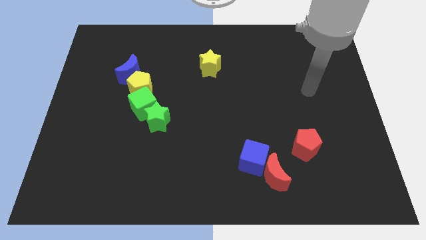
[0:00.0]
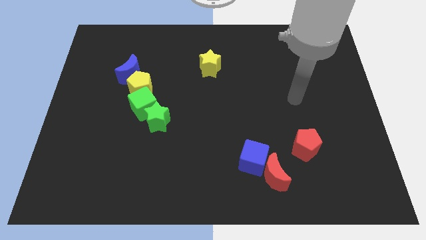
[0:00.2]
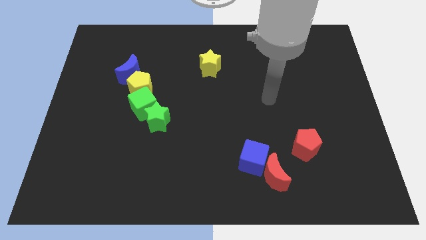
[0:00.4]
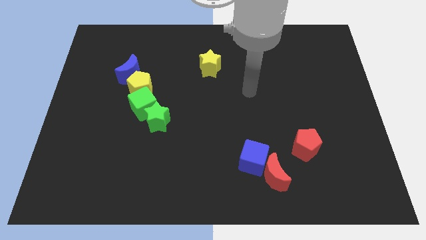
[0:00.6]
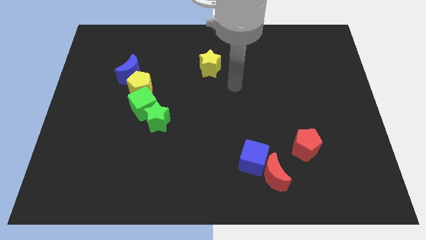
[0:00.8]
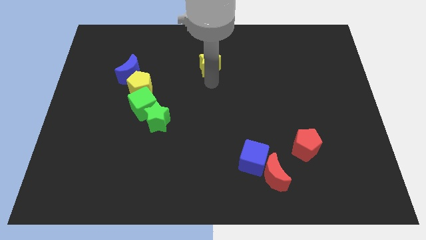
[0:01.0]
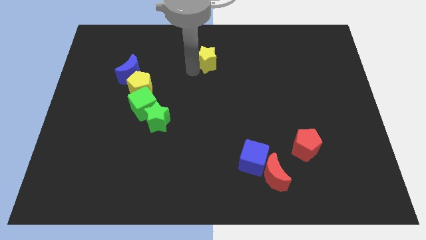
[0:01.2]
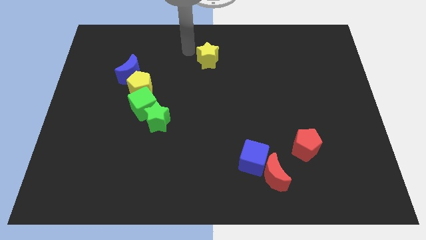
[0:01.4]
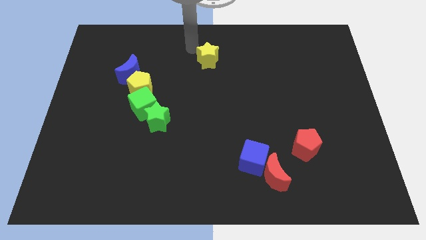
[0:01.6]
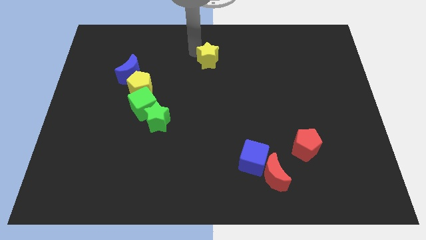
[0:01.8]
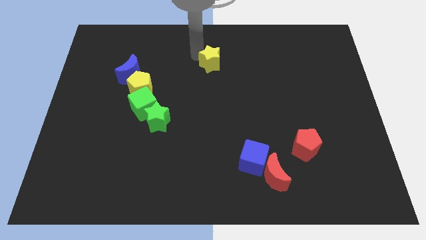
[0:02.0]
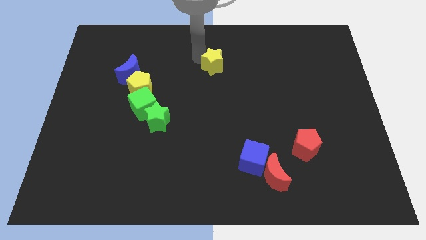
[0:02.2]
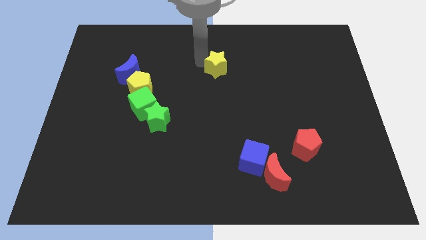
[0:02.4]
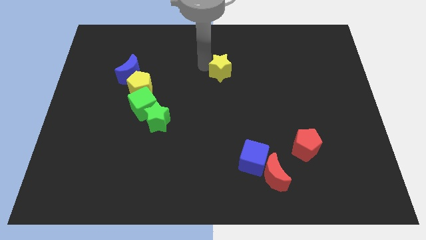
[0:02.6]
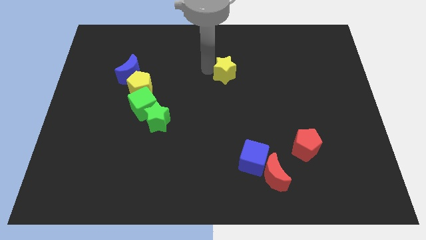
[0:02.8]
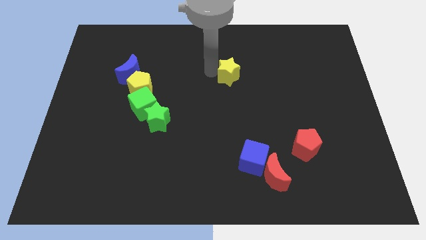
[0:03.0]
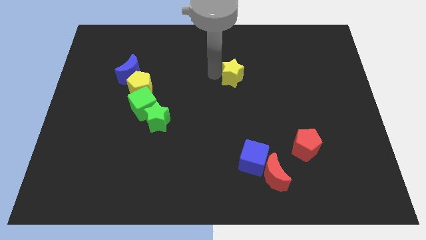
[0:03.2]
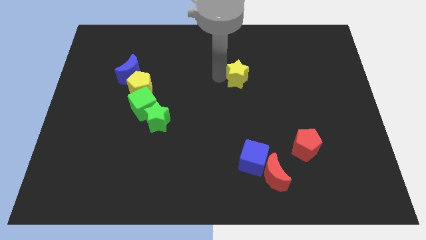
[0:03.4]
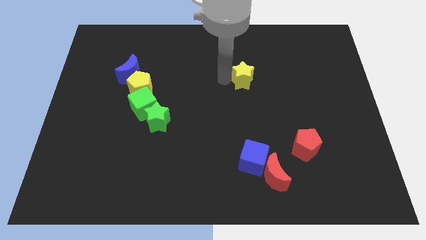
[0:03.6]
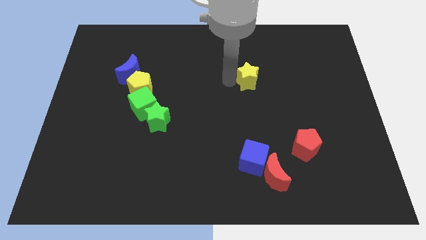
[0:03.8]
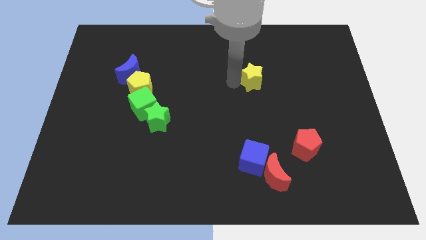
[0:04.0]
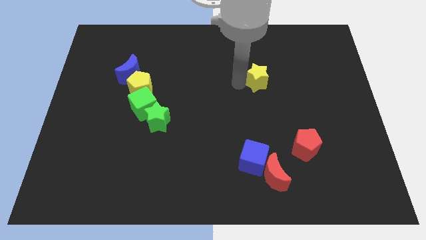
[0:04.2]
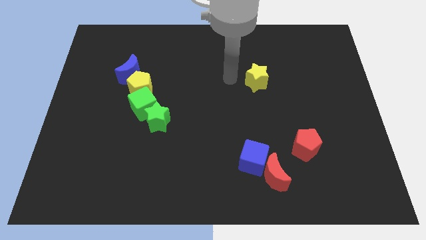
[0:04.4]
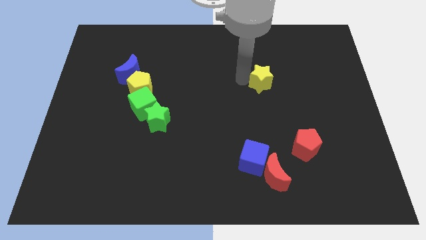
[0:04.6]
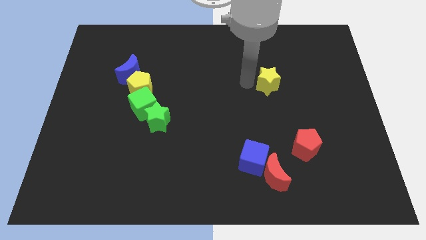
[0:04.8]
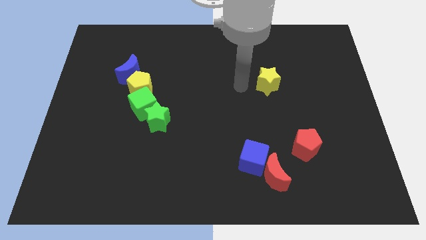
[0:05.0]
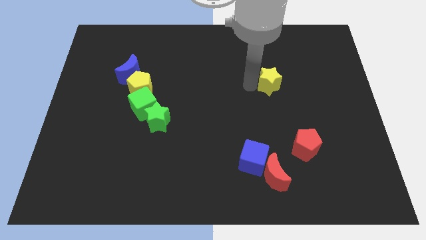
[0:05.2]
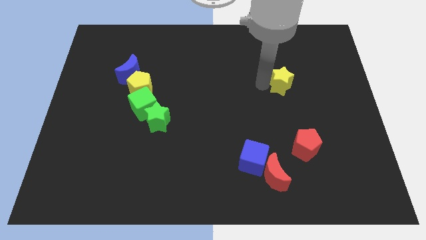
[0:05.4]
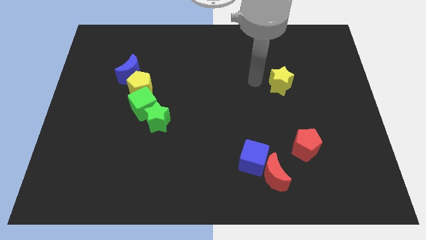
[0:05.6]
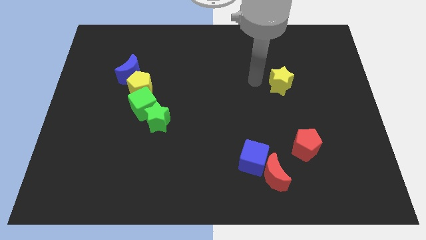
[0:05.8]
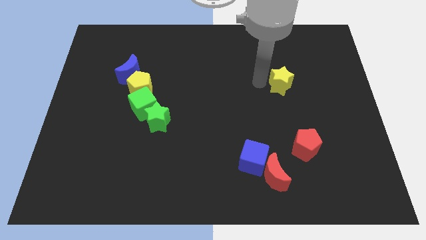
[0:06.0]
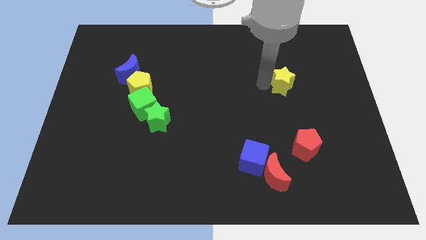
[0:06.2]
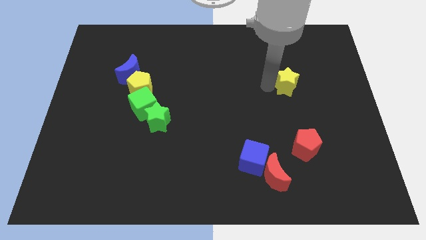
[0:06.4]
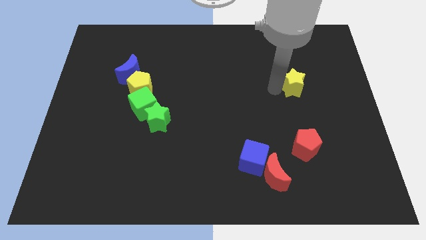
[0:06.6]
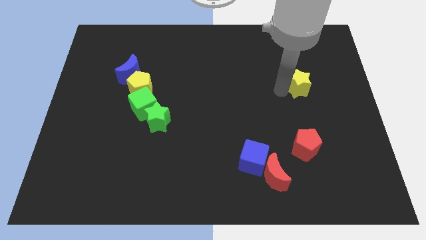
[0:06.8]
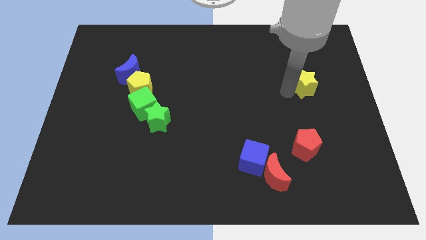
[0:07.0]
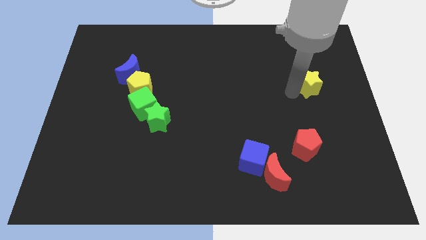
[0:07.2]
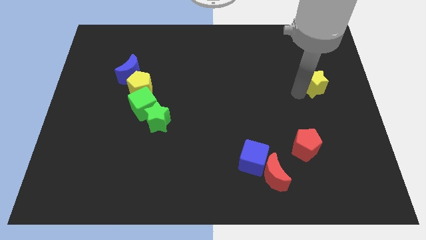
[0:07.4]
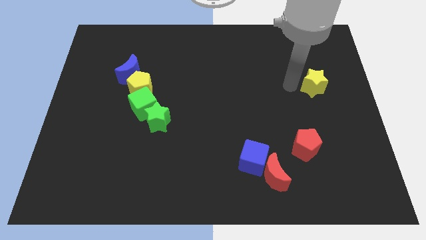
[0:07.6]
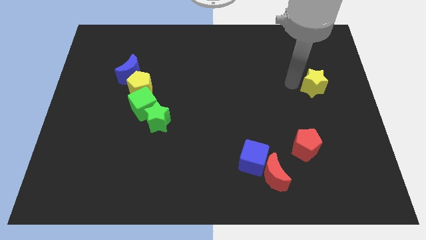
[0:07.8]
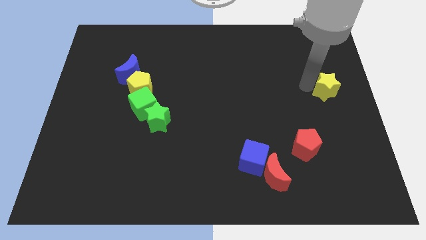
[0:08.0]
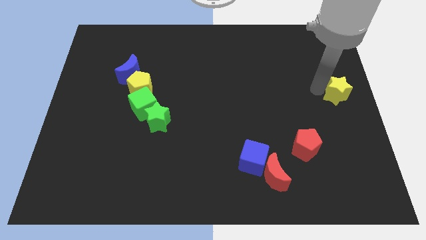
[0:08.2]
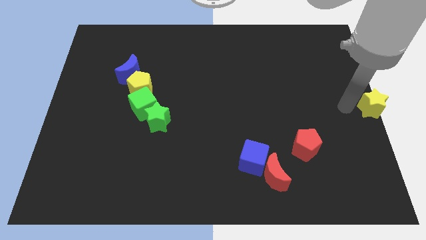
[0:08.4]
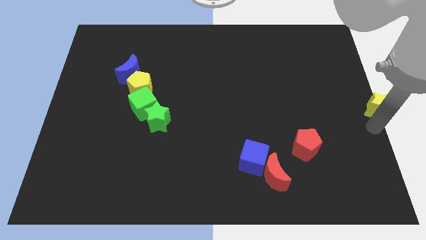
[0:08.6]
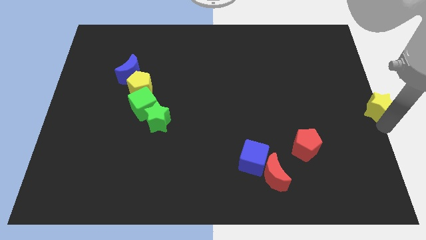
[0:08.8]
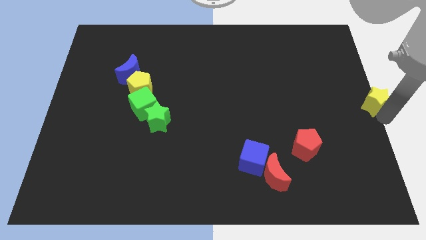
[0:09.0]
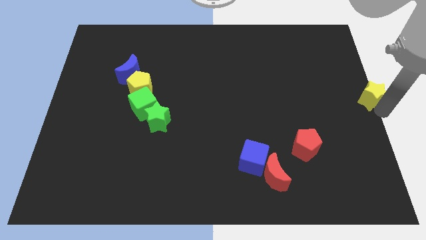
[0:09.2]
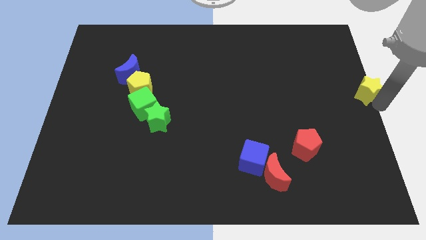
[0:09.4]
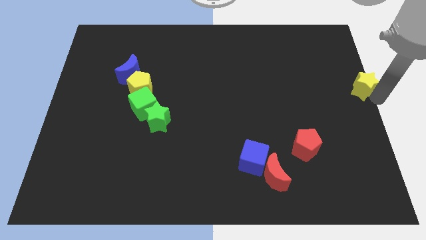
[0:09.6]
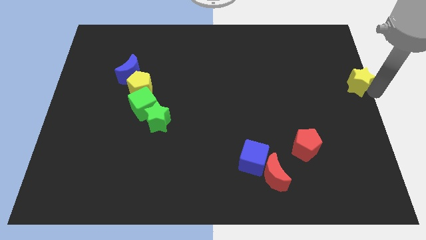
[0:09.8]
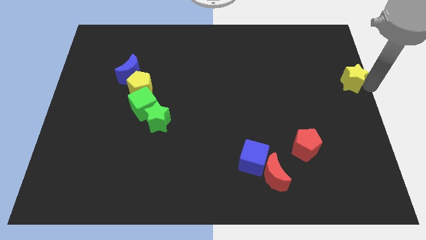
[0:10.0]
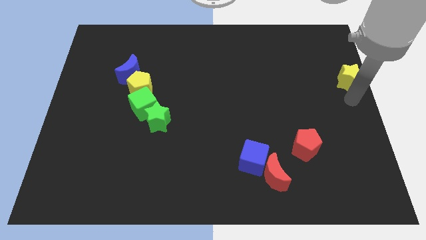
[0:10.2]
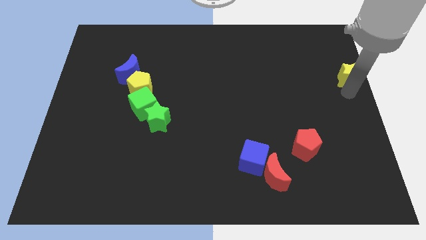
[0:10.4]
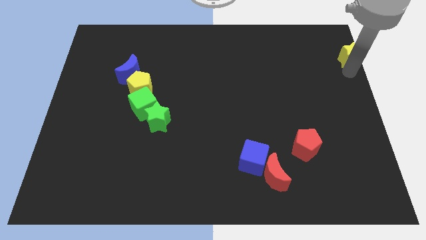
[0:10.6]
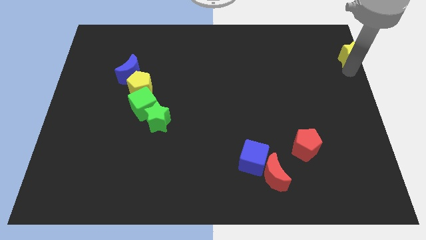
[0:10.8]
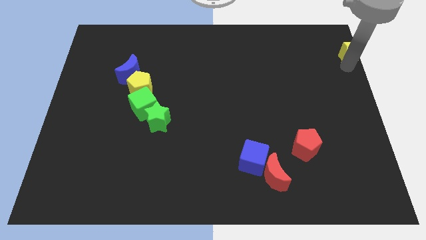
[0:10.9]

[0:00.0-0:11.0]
push the yellow star to the upper right corner

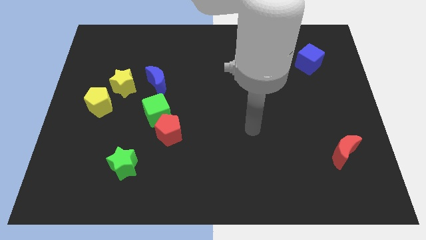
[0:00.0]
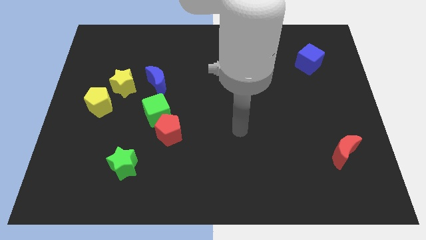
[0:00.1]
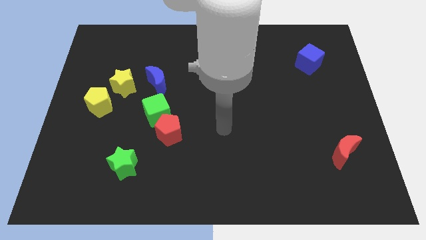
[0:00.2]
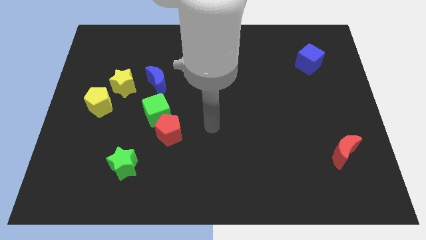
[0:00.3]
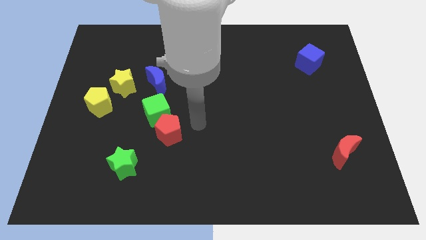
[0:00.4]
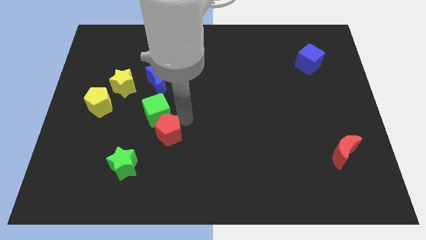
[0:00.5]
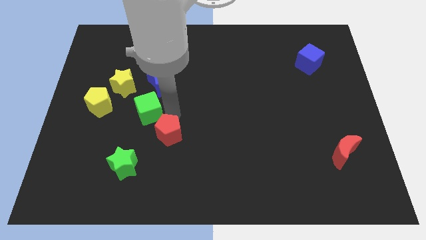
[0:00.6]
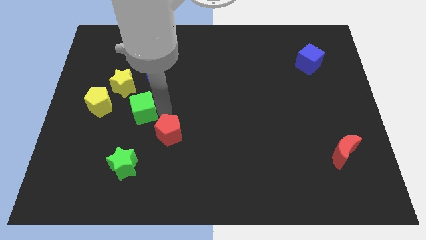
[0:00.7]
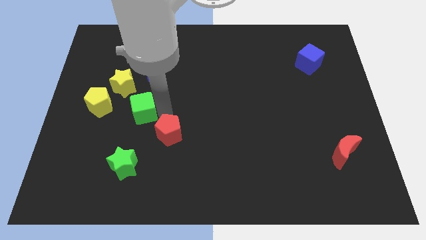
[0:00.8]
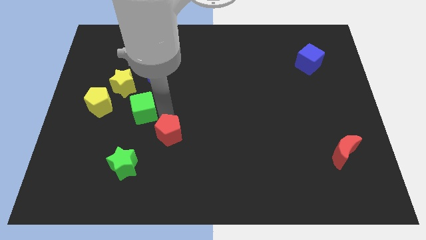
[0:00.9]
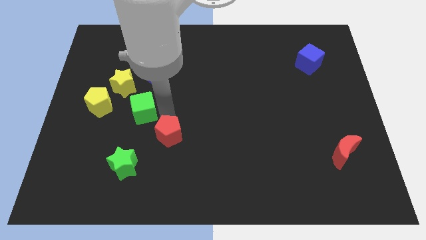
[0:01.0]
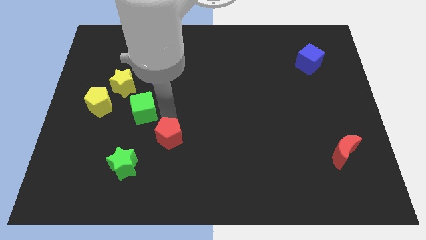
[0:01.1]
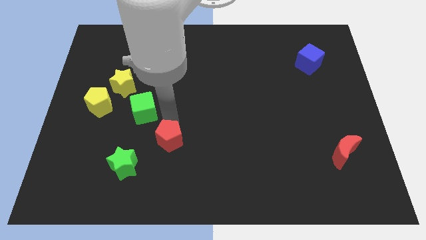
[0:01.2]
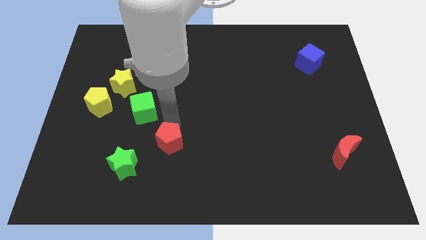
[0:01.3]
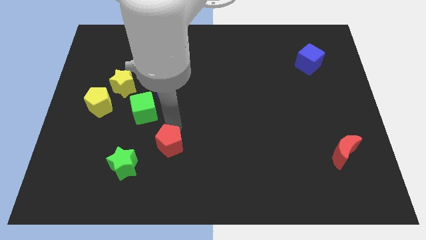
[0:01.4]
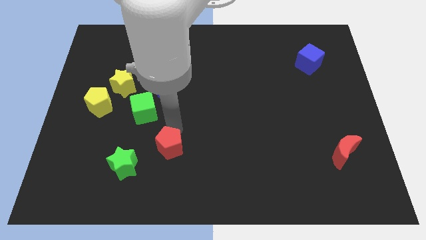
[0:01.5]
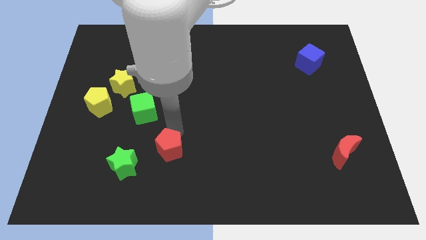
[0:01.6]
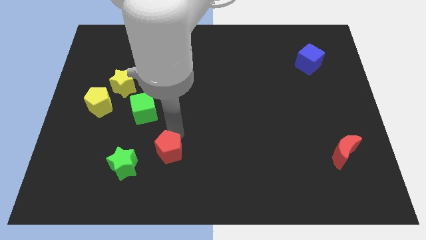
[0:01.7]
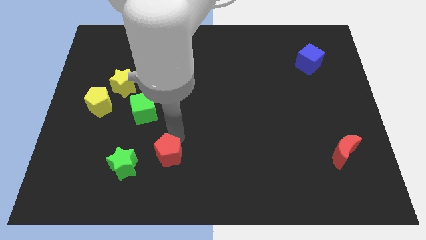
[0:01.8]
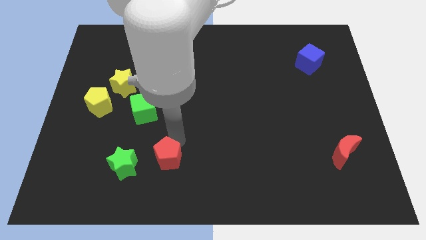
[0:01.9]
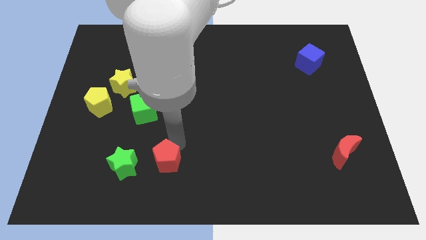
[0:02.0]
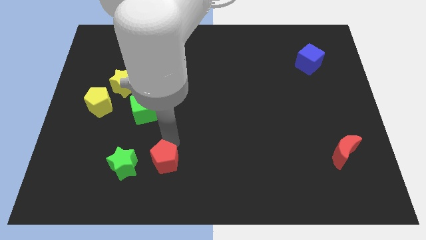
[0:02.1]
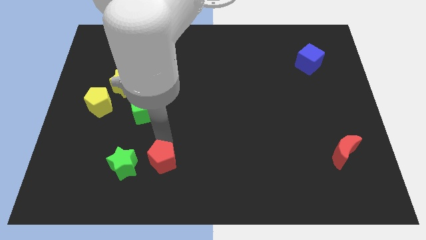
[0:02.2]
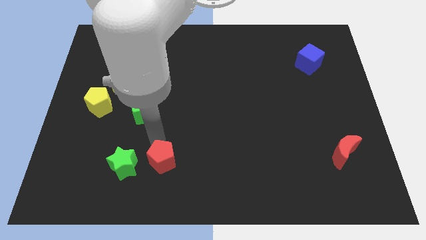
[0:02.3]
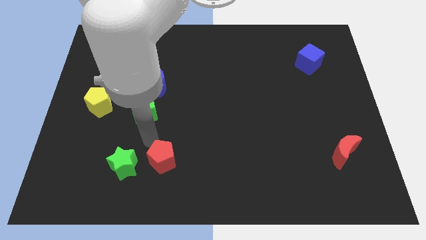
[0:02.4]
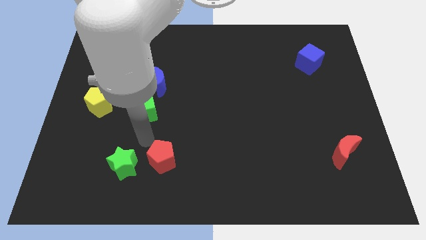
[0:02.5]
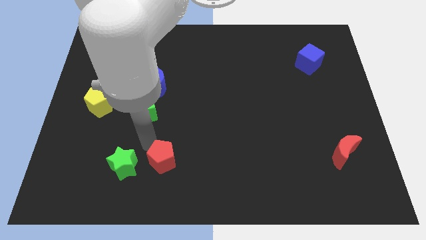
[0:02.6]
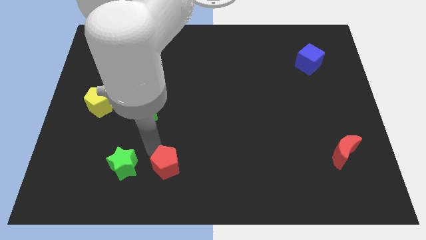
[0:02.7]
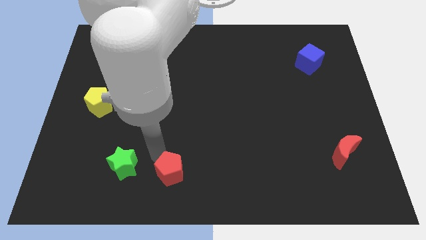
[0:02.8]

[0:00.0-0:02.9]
put the red pentagon to the bottom
